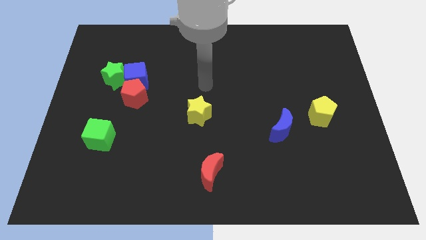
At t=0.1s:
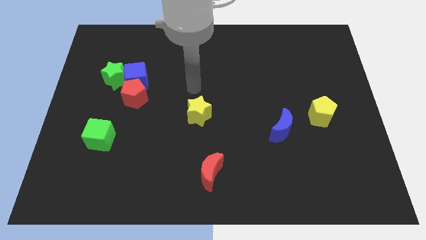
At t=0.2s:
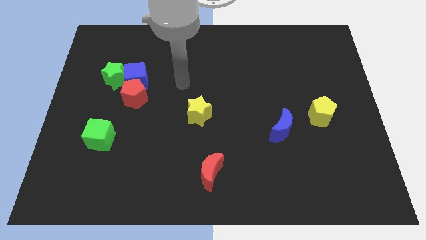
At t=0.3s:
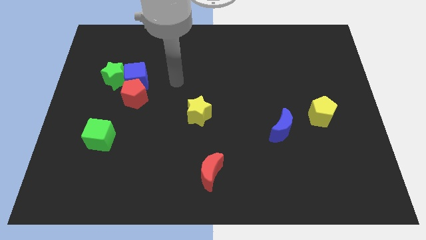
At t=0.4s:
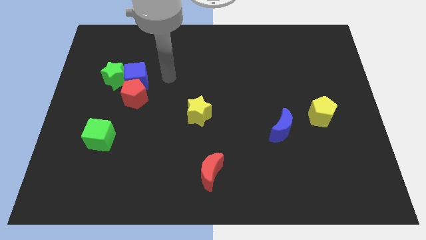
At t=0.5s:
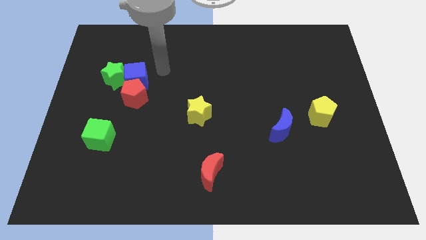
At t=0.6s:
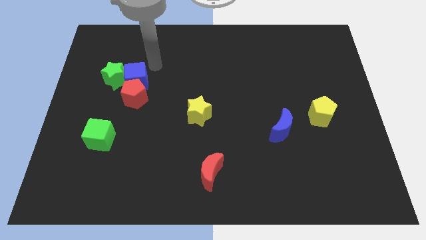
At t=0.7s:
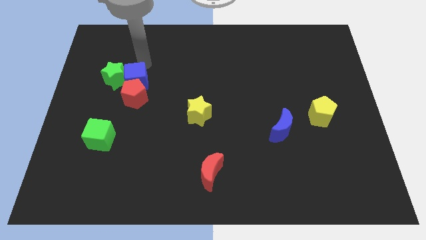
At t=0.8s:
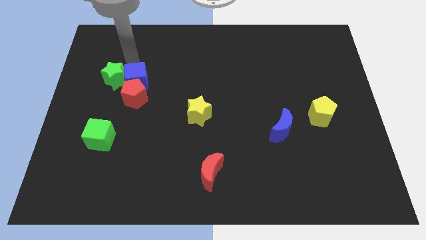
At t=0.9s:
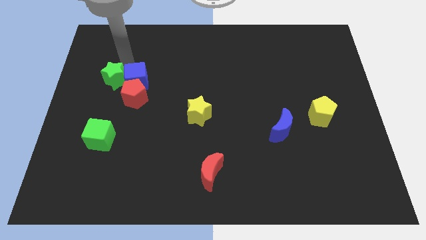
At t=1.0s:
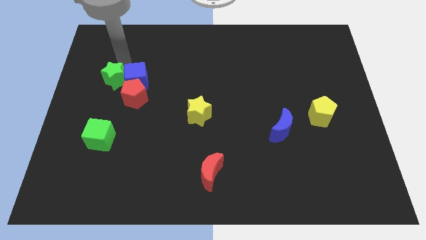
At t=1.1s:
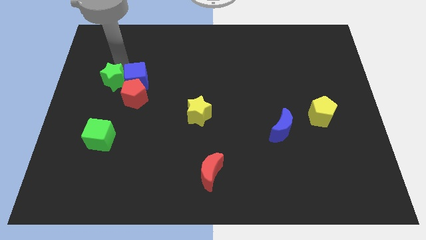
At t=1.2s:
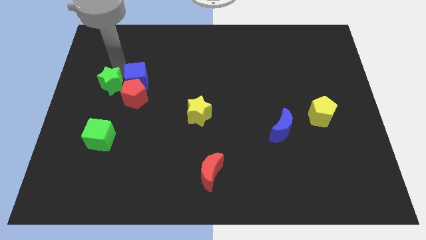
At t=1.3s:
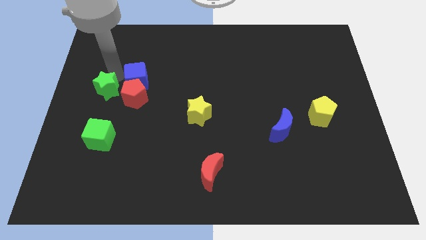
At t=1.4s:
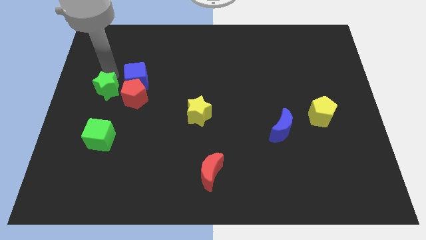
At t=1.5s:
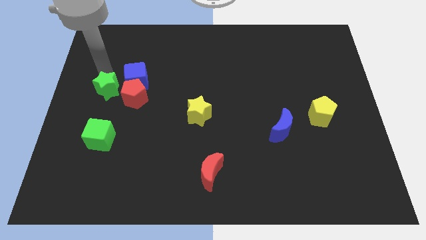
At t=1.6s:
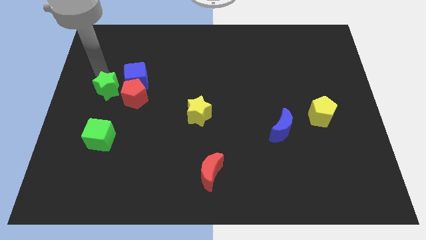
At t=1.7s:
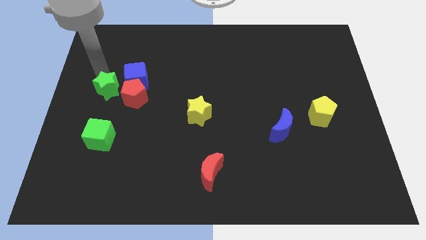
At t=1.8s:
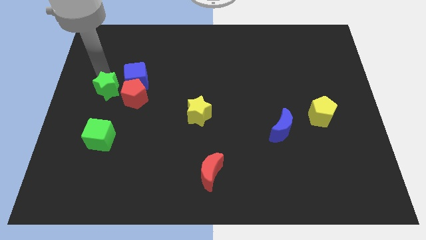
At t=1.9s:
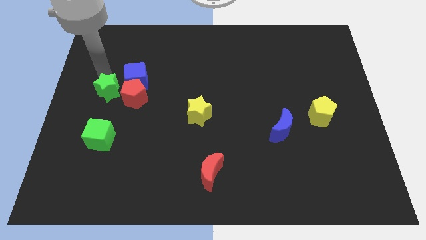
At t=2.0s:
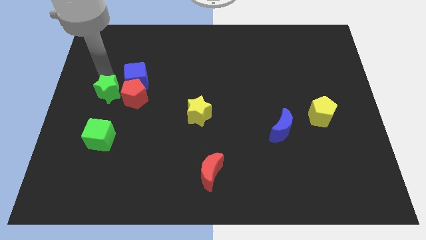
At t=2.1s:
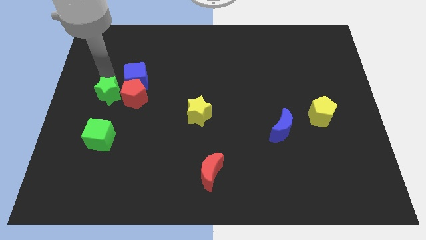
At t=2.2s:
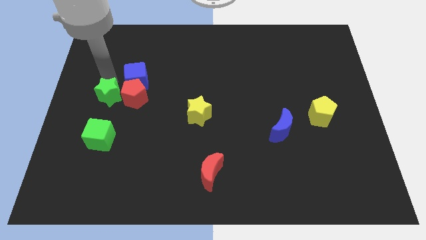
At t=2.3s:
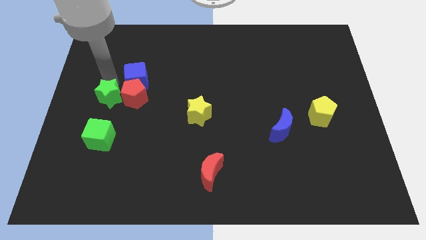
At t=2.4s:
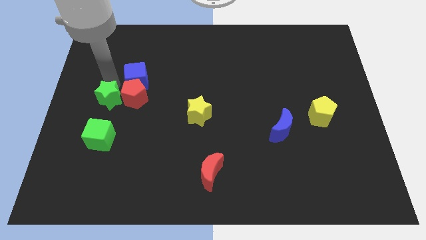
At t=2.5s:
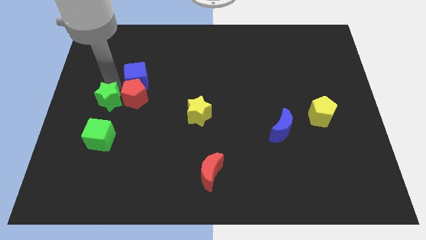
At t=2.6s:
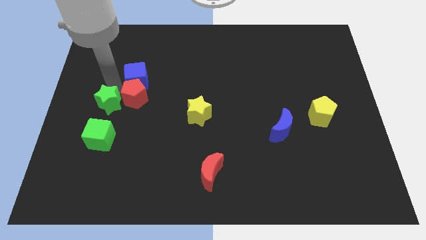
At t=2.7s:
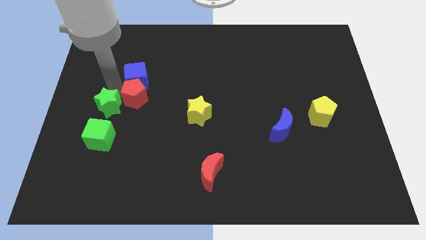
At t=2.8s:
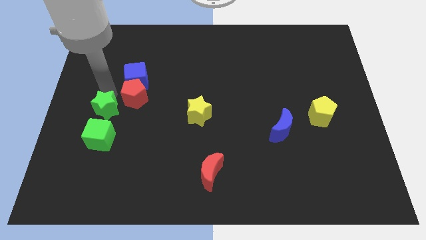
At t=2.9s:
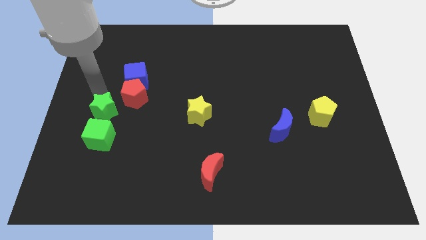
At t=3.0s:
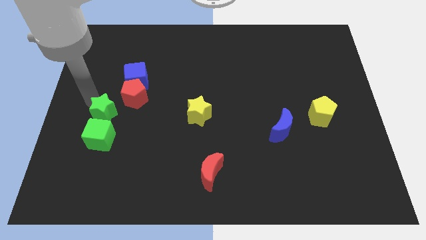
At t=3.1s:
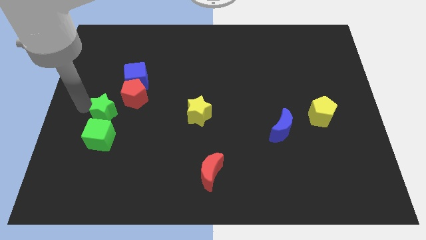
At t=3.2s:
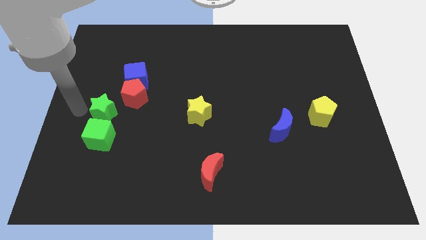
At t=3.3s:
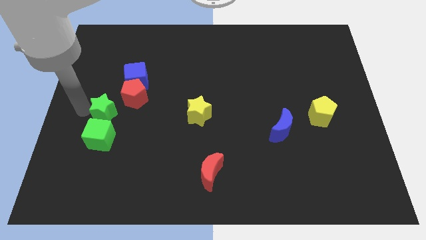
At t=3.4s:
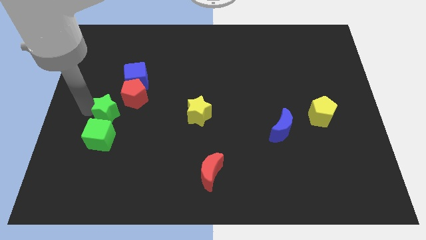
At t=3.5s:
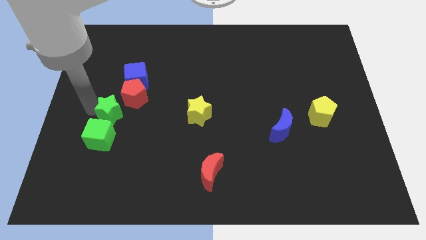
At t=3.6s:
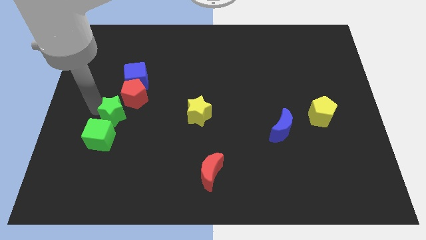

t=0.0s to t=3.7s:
move the green star a little bit diagonally down and right

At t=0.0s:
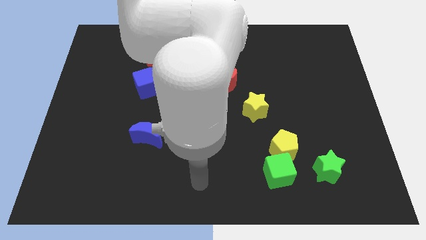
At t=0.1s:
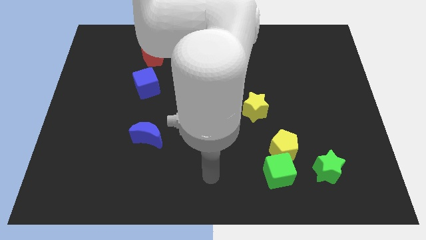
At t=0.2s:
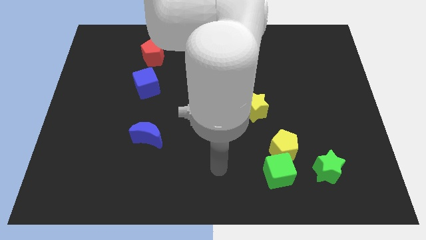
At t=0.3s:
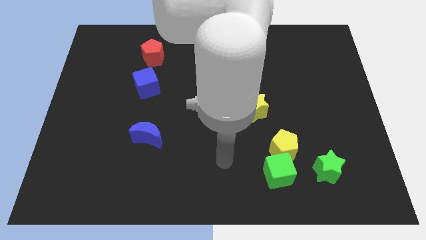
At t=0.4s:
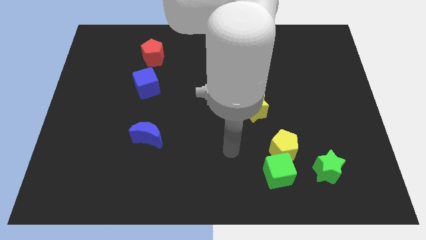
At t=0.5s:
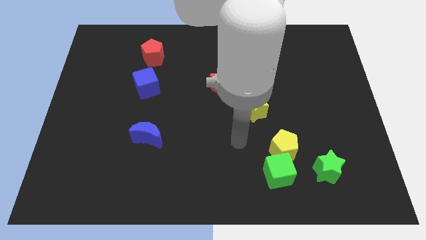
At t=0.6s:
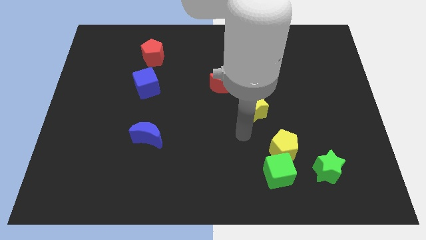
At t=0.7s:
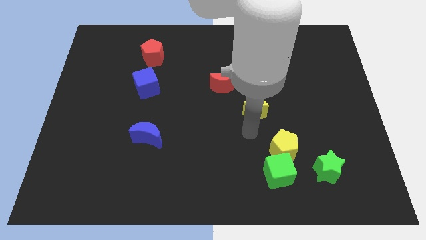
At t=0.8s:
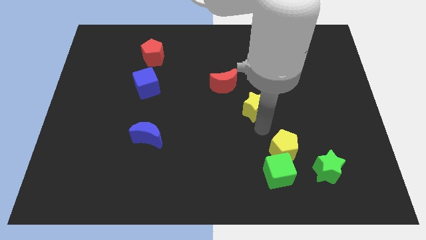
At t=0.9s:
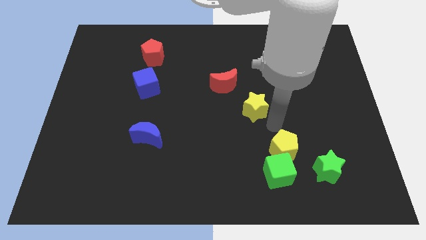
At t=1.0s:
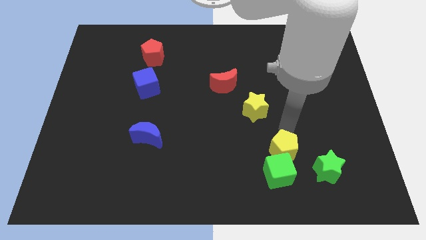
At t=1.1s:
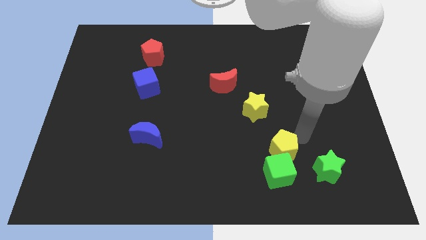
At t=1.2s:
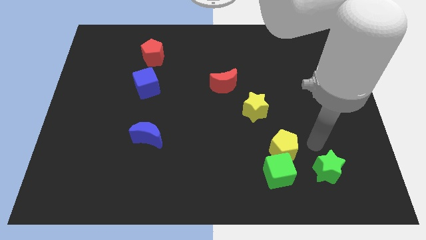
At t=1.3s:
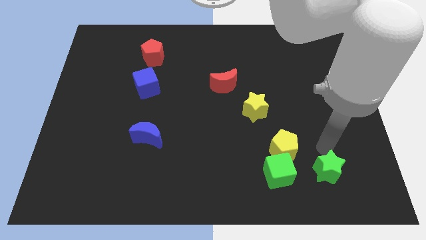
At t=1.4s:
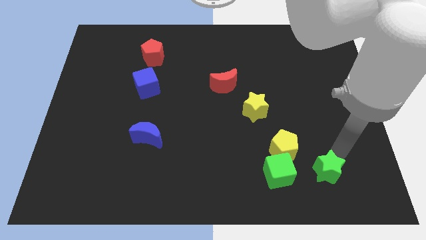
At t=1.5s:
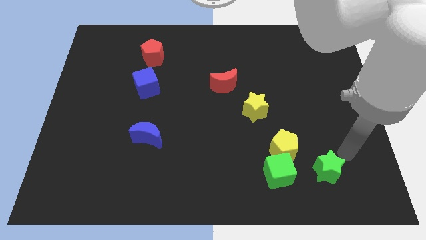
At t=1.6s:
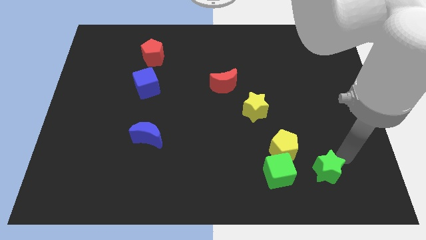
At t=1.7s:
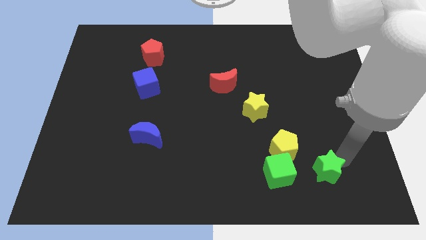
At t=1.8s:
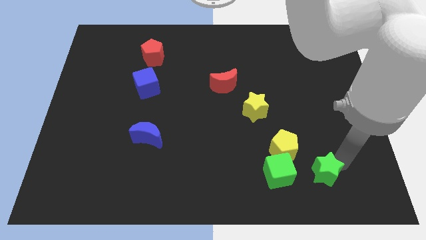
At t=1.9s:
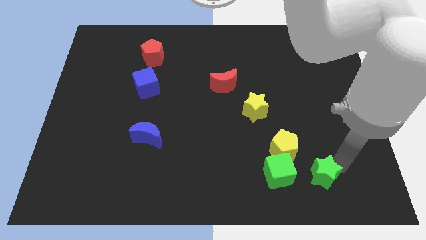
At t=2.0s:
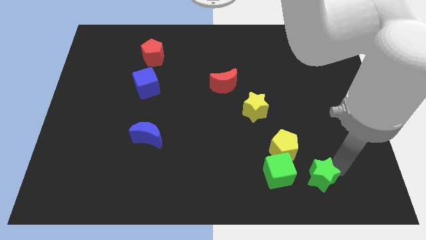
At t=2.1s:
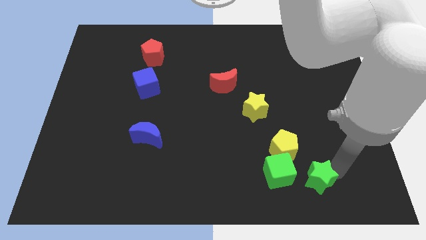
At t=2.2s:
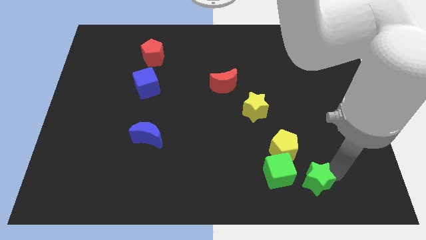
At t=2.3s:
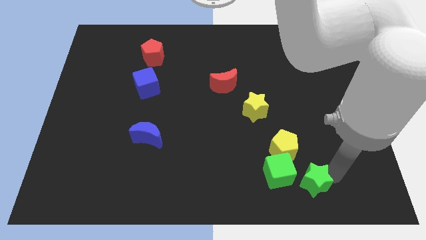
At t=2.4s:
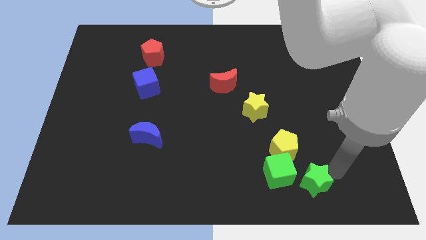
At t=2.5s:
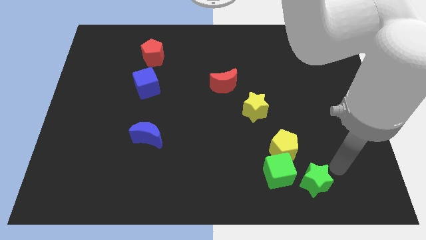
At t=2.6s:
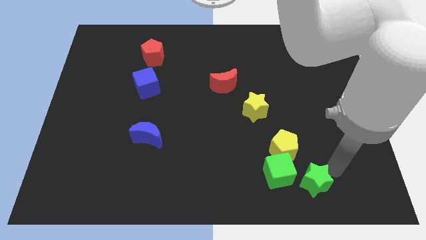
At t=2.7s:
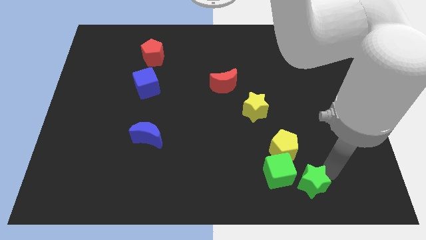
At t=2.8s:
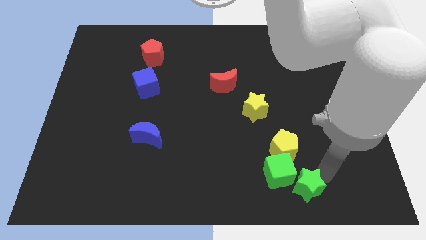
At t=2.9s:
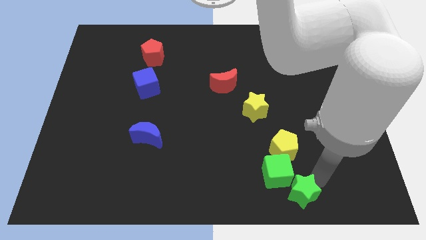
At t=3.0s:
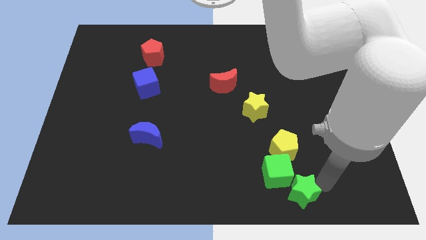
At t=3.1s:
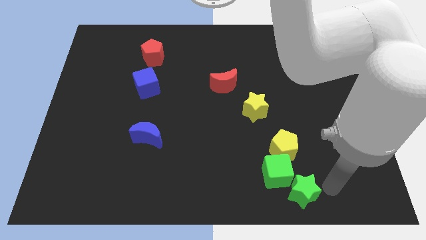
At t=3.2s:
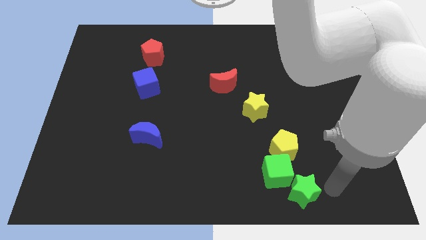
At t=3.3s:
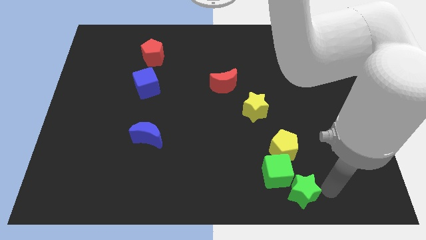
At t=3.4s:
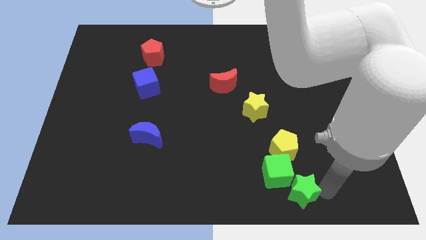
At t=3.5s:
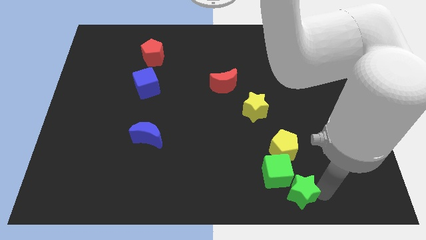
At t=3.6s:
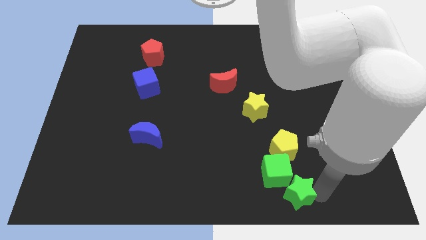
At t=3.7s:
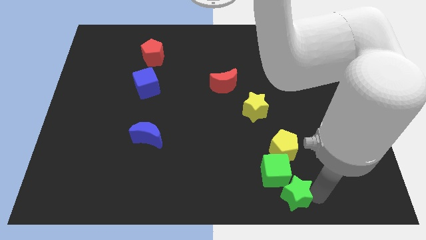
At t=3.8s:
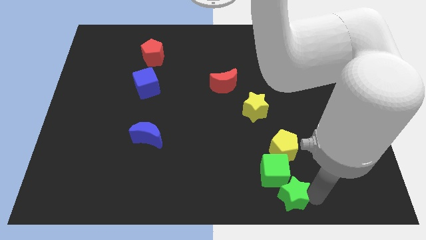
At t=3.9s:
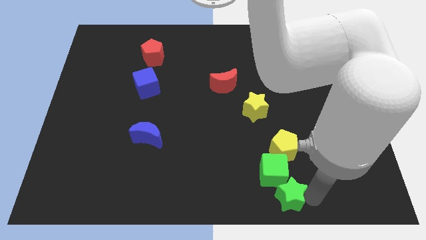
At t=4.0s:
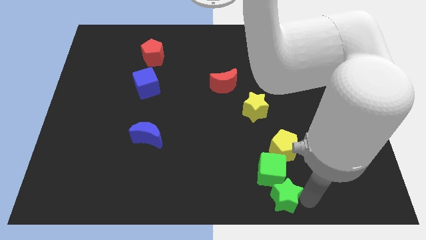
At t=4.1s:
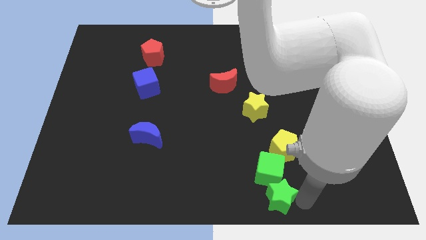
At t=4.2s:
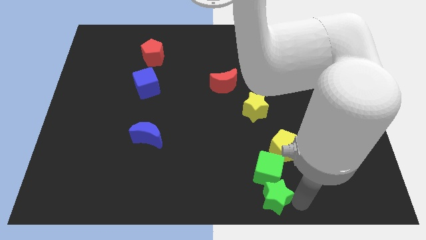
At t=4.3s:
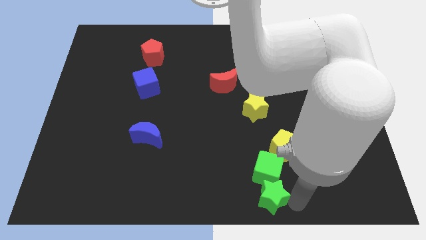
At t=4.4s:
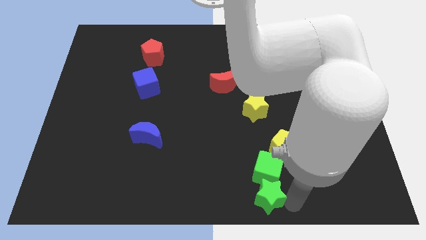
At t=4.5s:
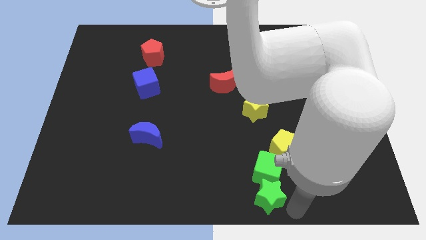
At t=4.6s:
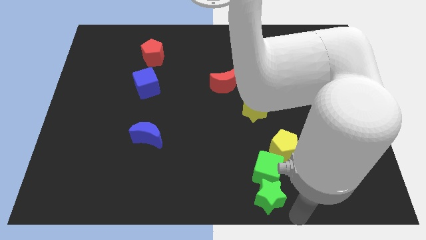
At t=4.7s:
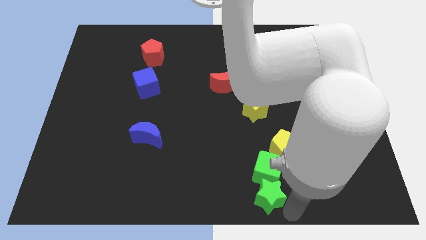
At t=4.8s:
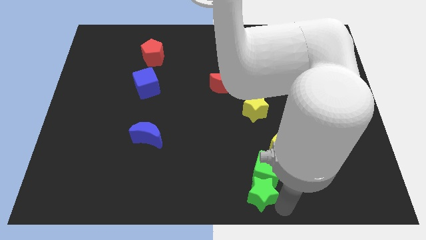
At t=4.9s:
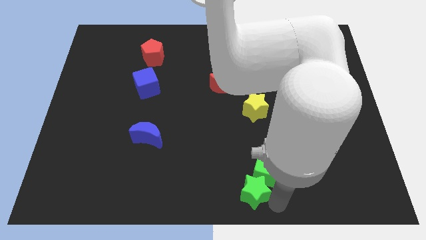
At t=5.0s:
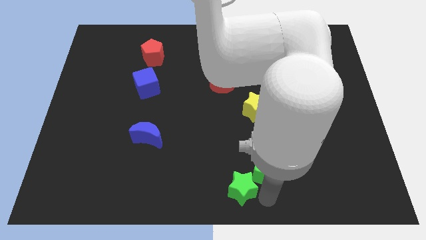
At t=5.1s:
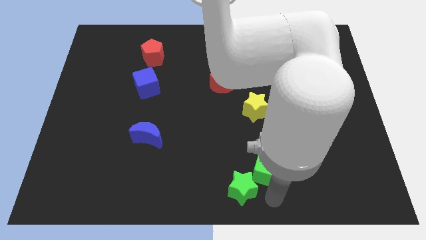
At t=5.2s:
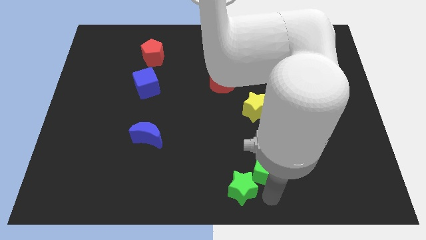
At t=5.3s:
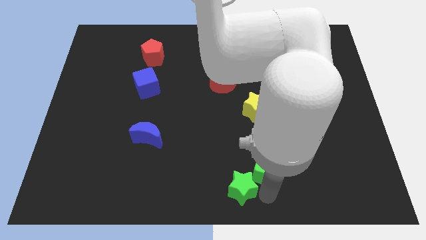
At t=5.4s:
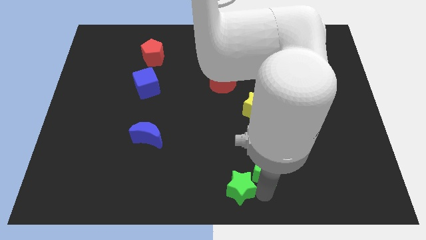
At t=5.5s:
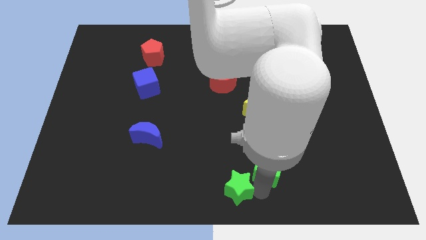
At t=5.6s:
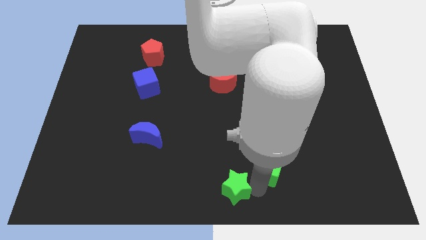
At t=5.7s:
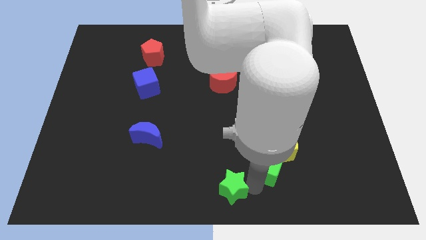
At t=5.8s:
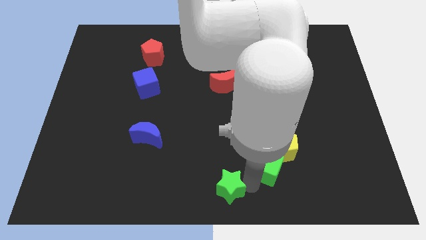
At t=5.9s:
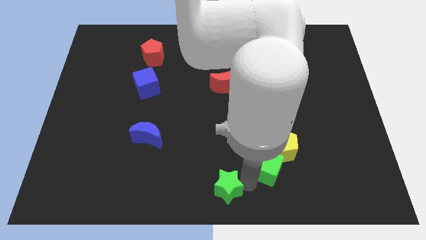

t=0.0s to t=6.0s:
slide the green star to the left
